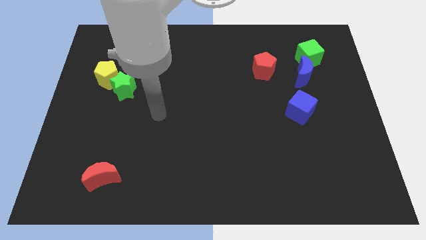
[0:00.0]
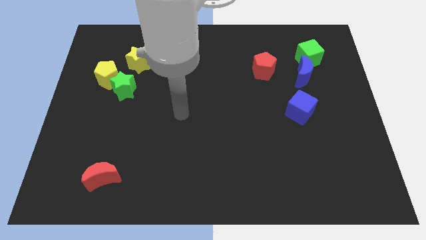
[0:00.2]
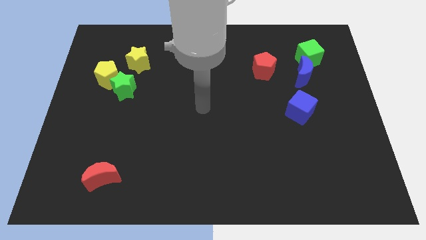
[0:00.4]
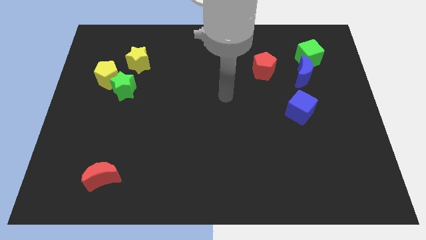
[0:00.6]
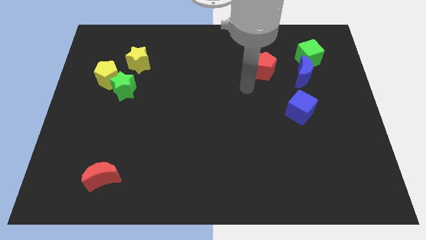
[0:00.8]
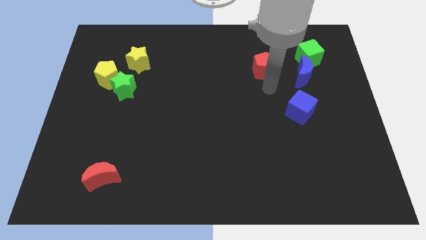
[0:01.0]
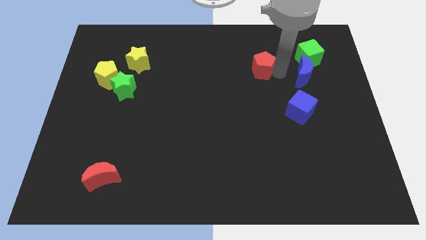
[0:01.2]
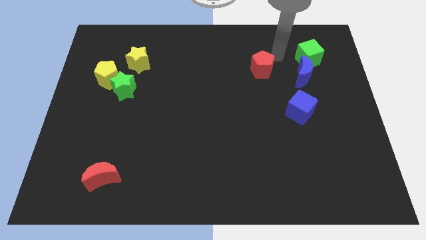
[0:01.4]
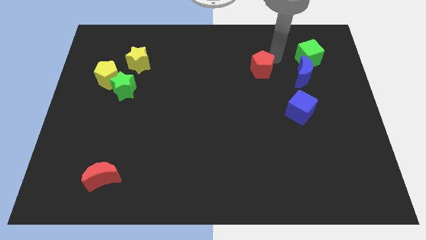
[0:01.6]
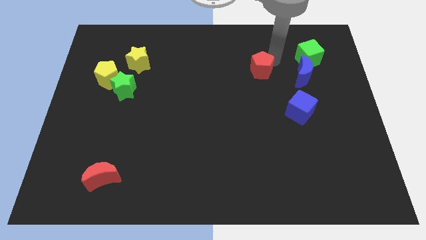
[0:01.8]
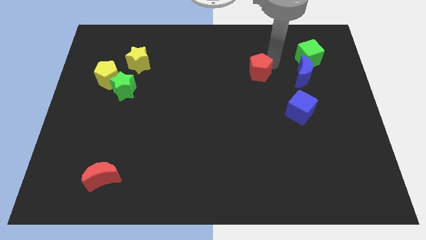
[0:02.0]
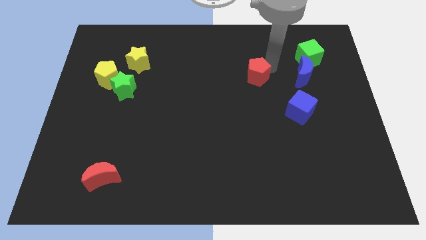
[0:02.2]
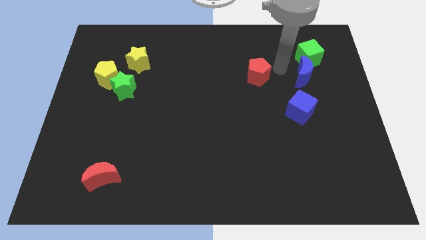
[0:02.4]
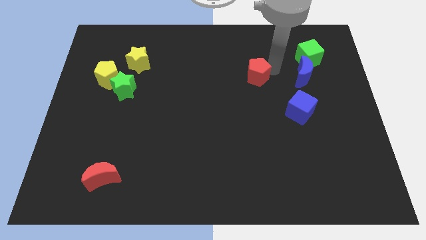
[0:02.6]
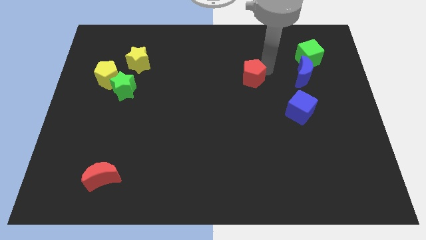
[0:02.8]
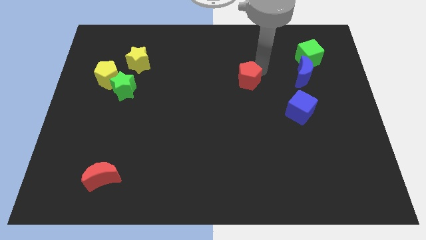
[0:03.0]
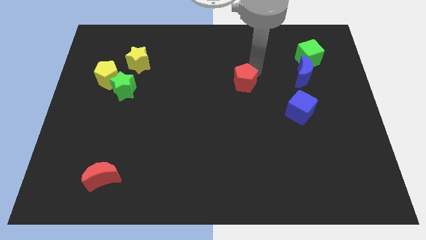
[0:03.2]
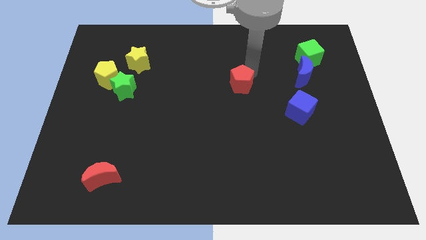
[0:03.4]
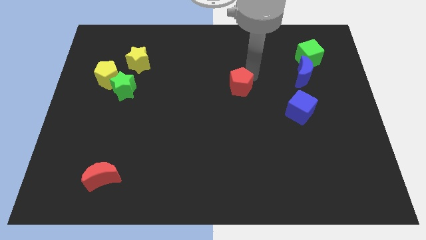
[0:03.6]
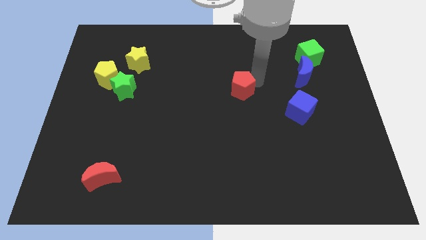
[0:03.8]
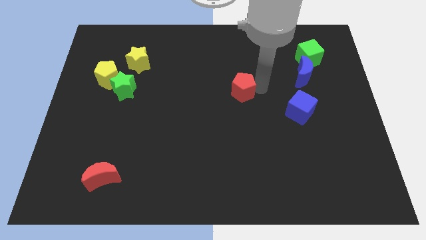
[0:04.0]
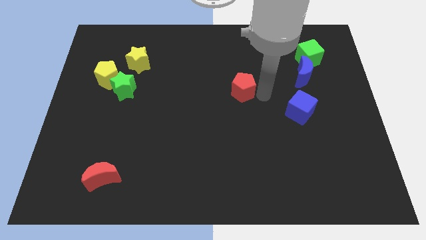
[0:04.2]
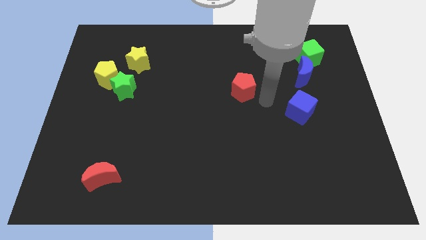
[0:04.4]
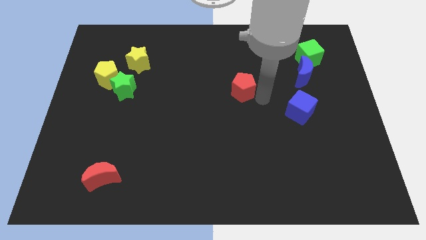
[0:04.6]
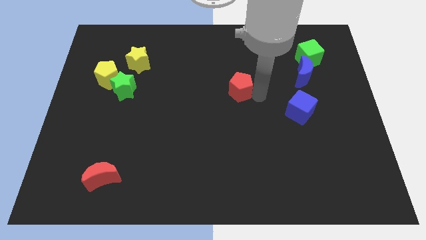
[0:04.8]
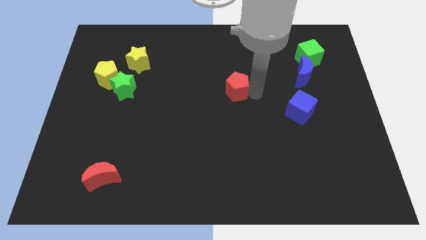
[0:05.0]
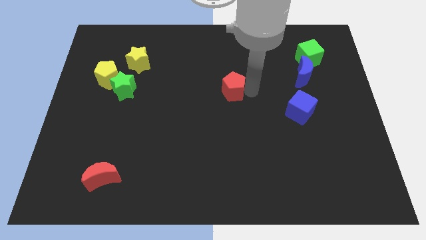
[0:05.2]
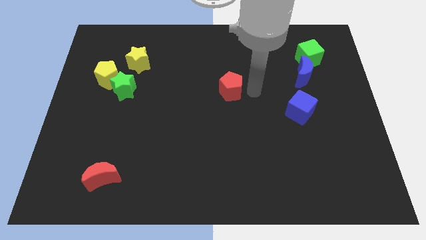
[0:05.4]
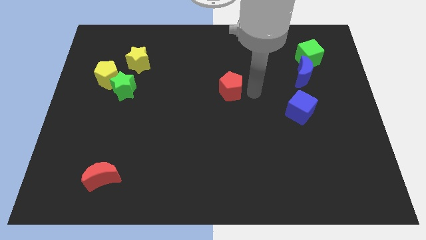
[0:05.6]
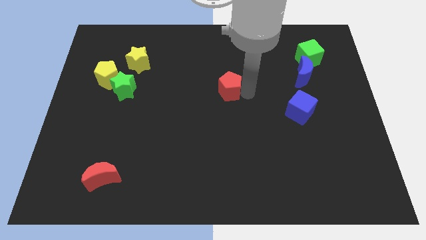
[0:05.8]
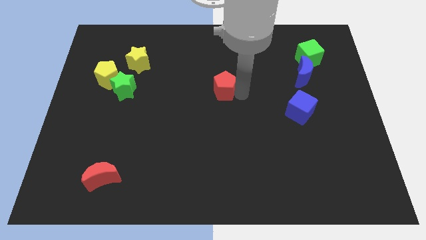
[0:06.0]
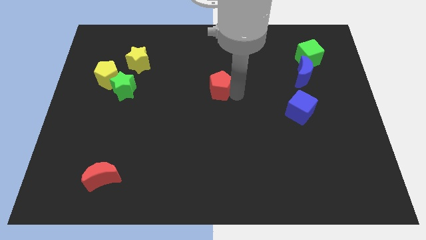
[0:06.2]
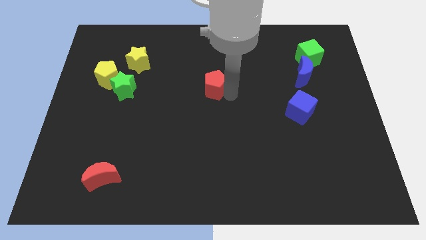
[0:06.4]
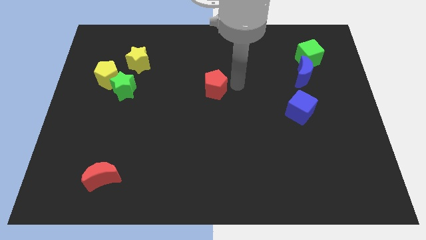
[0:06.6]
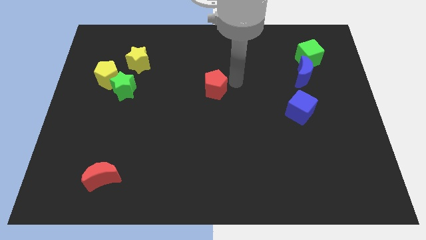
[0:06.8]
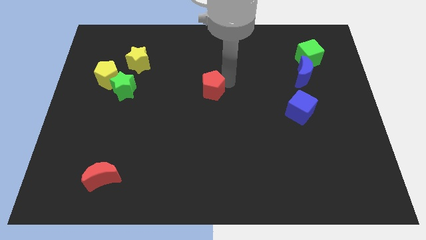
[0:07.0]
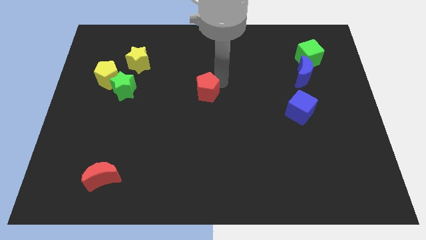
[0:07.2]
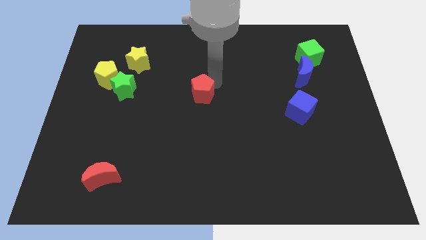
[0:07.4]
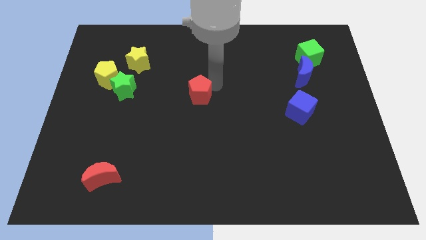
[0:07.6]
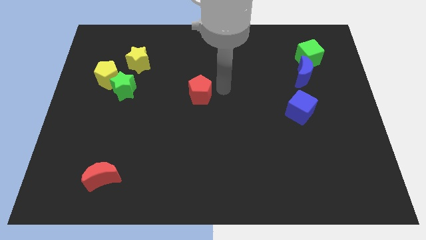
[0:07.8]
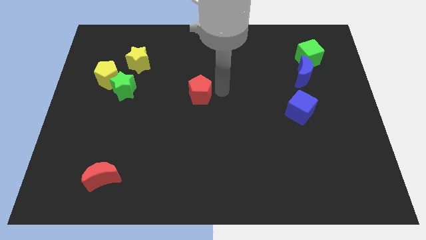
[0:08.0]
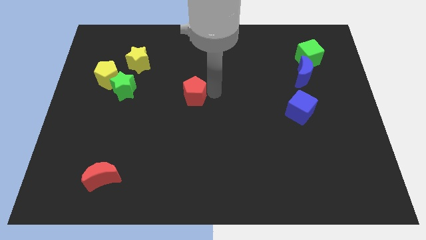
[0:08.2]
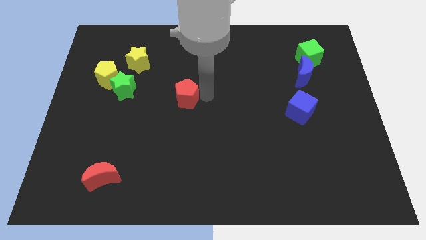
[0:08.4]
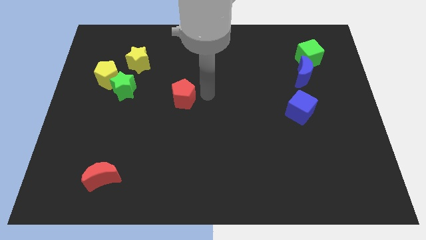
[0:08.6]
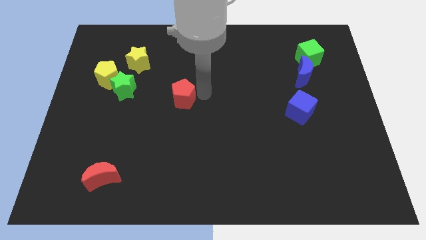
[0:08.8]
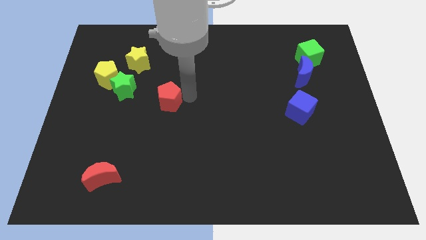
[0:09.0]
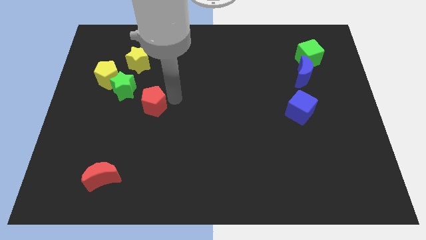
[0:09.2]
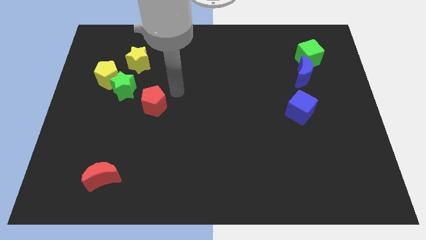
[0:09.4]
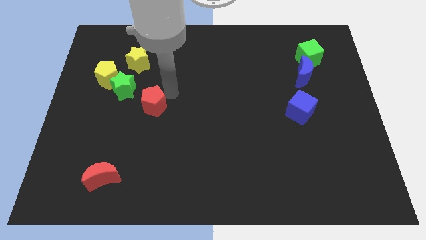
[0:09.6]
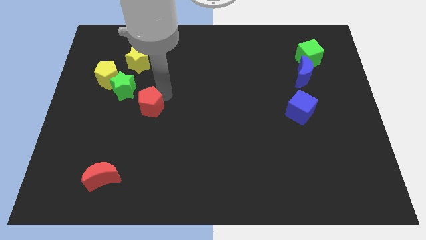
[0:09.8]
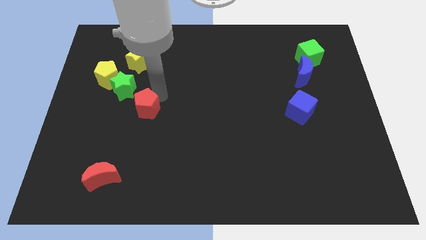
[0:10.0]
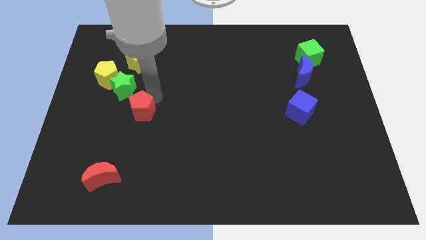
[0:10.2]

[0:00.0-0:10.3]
put the red pentagon to the bottom of the green star

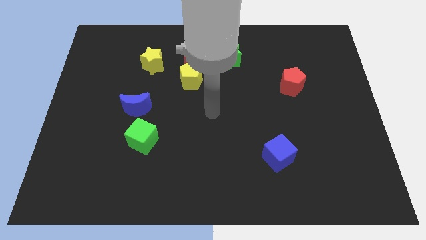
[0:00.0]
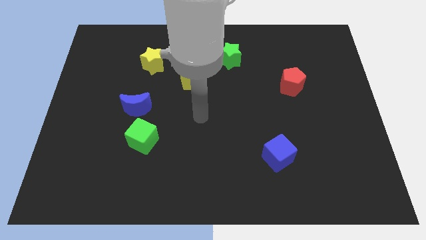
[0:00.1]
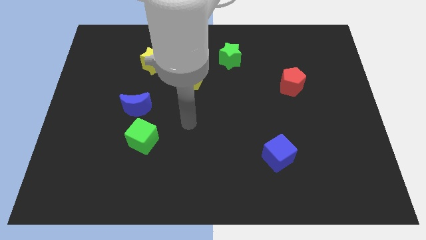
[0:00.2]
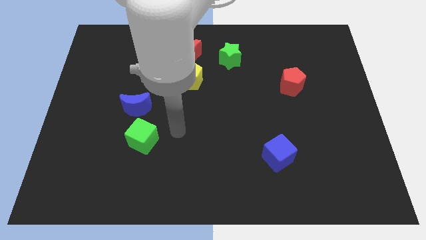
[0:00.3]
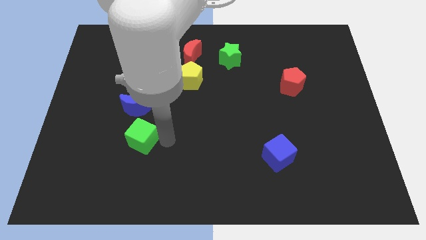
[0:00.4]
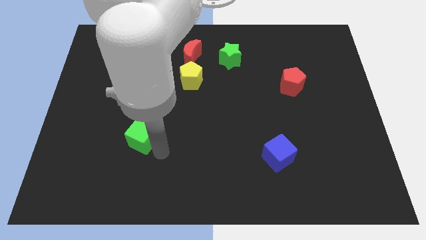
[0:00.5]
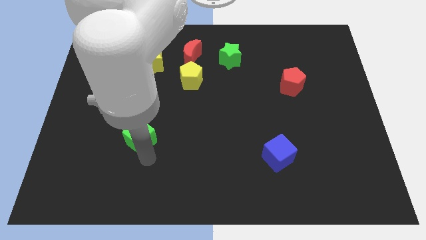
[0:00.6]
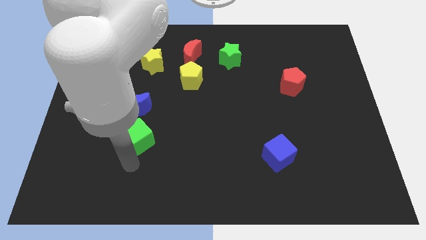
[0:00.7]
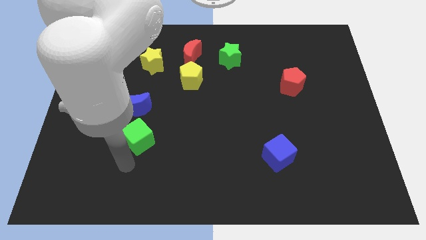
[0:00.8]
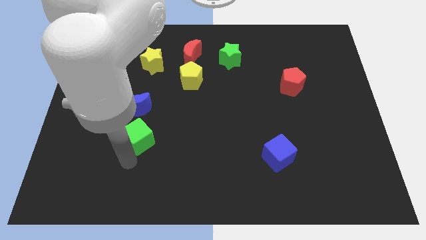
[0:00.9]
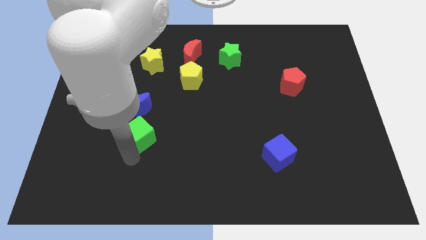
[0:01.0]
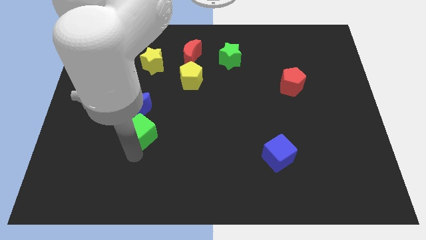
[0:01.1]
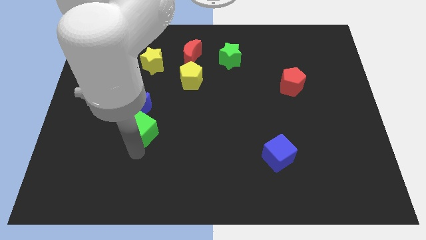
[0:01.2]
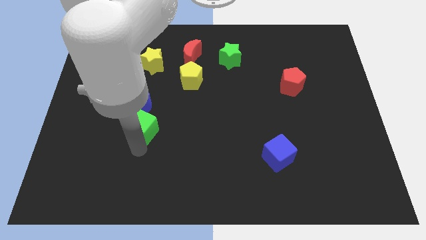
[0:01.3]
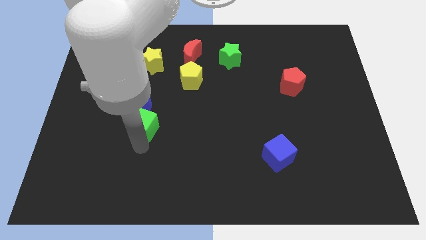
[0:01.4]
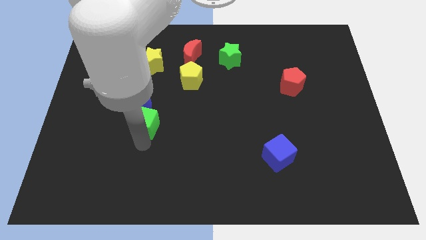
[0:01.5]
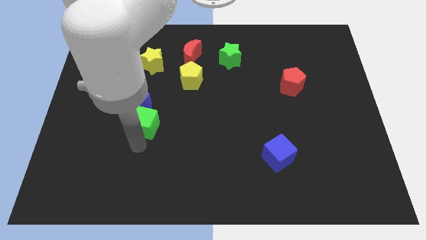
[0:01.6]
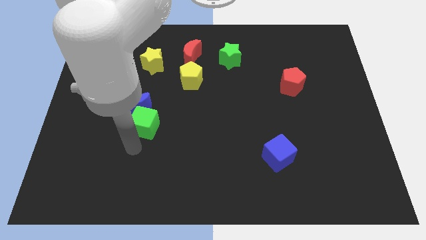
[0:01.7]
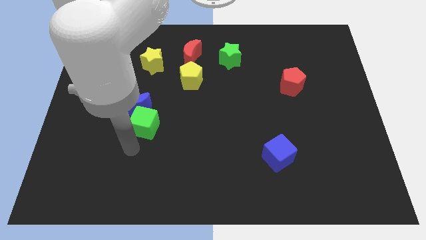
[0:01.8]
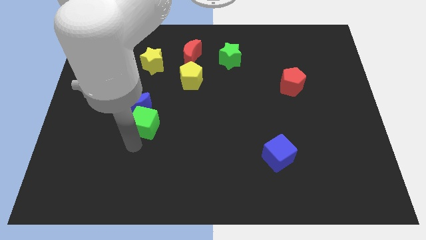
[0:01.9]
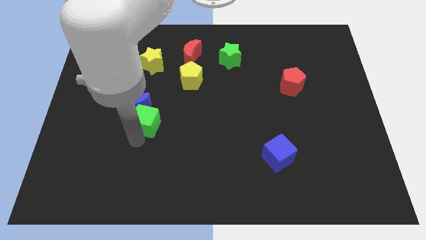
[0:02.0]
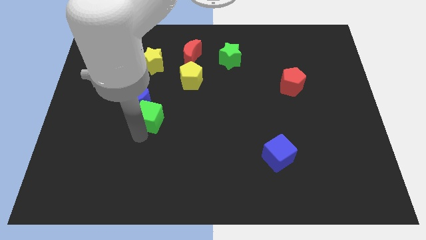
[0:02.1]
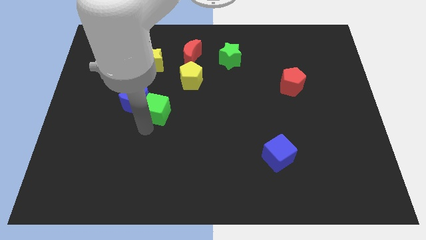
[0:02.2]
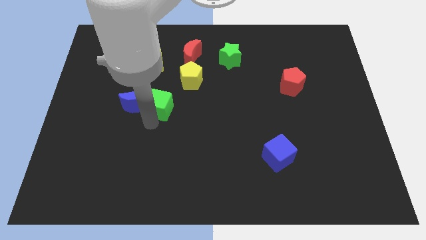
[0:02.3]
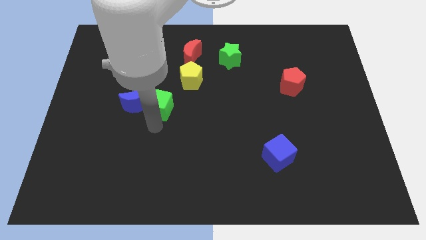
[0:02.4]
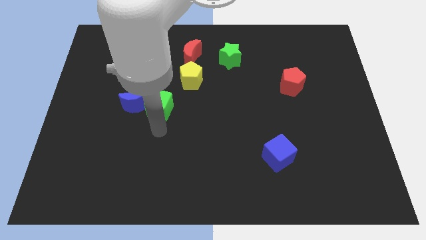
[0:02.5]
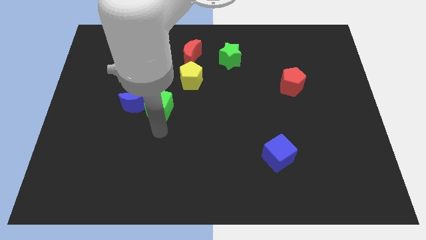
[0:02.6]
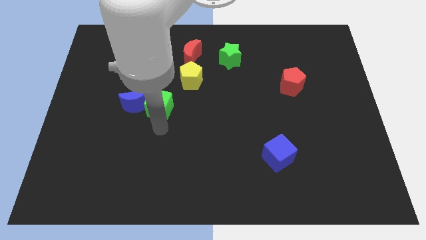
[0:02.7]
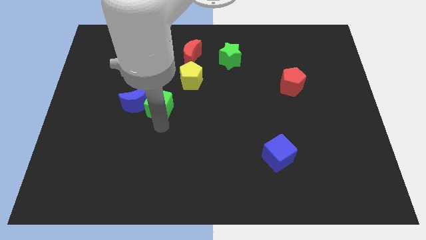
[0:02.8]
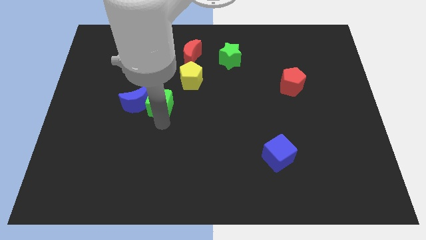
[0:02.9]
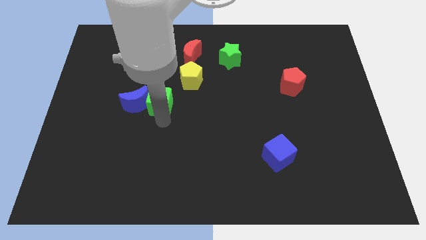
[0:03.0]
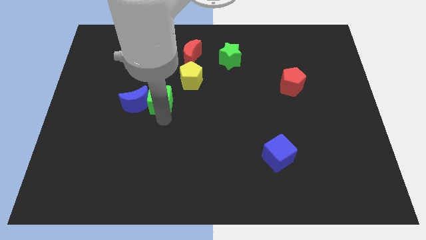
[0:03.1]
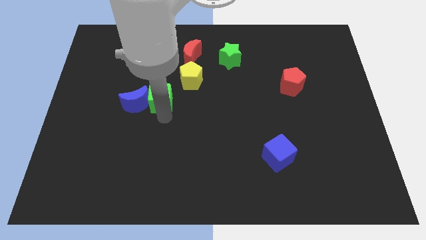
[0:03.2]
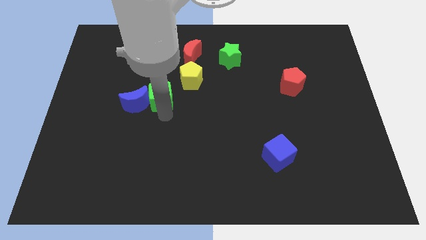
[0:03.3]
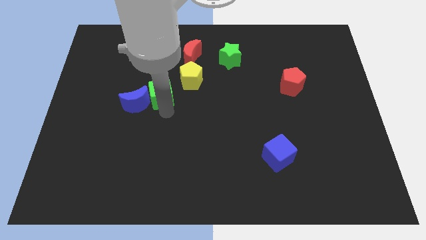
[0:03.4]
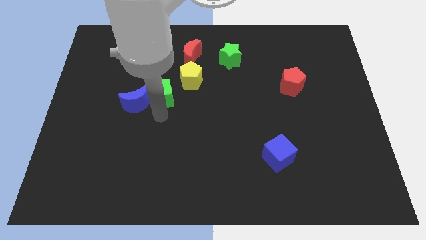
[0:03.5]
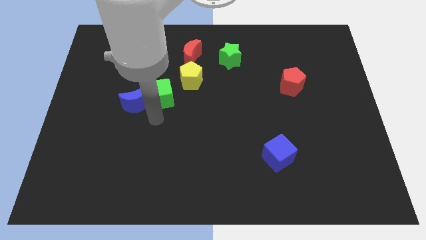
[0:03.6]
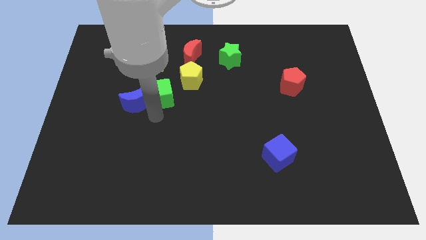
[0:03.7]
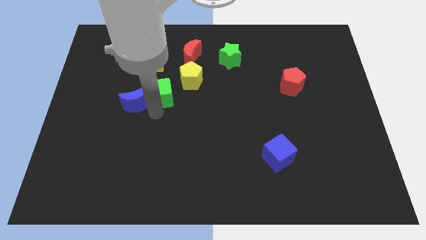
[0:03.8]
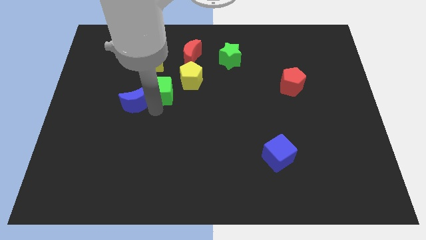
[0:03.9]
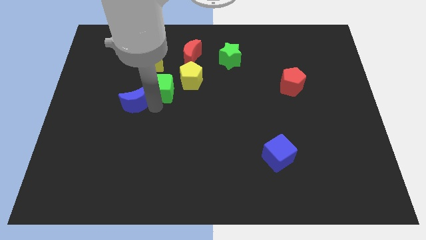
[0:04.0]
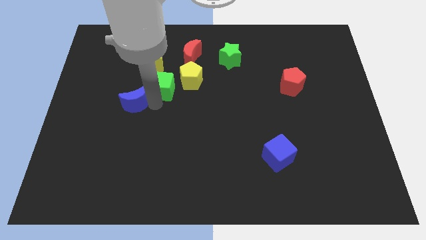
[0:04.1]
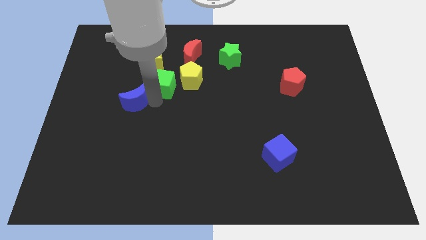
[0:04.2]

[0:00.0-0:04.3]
slide the green cube diagonally down and to the left of the red moon
